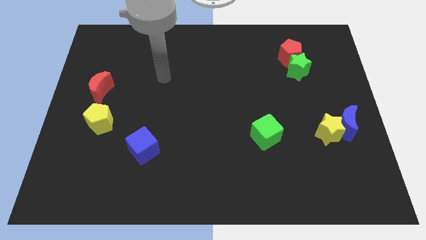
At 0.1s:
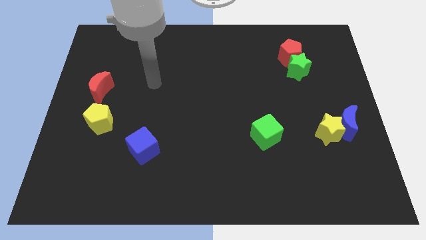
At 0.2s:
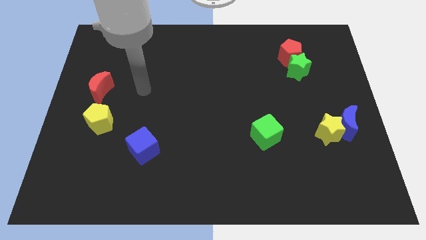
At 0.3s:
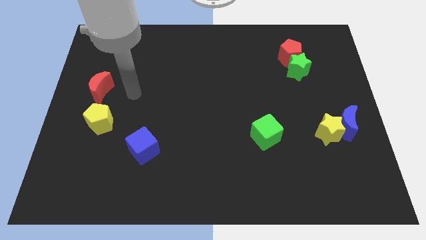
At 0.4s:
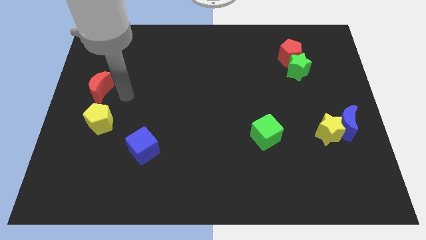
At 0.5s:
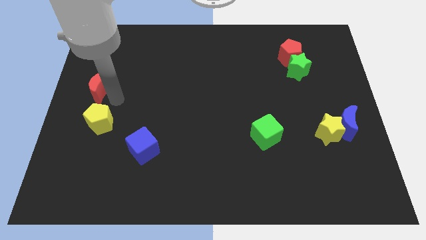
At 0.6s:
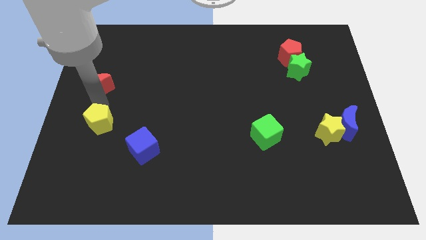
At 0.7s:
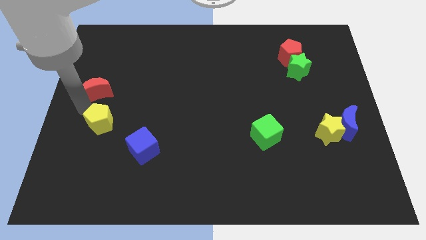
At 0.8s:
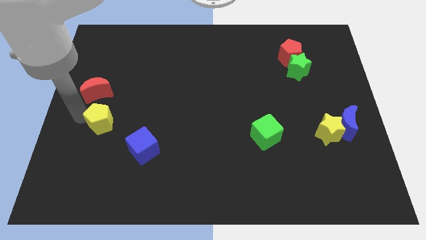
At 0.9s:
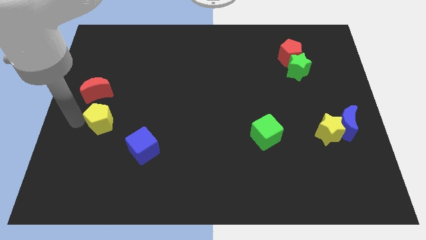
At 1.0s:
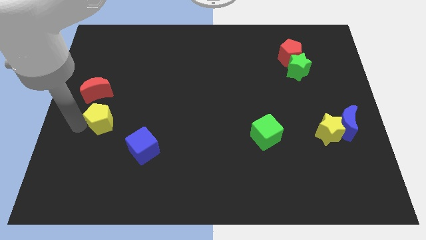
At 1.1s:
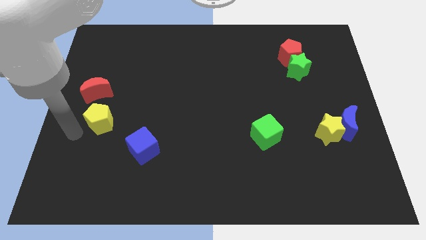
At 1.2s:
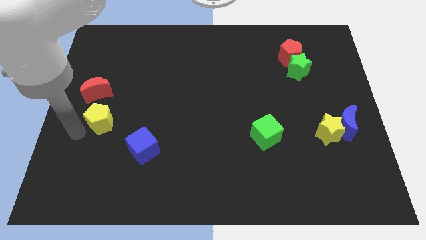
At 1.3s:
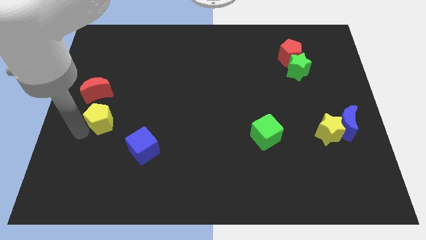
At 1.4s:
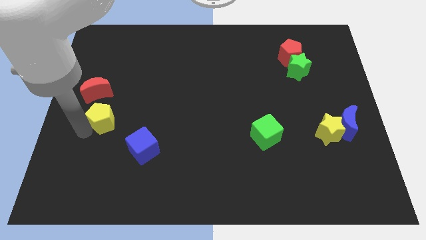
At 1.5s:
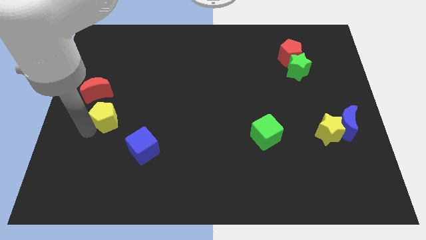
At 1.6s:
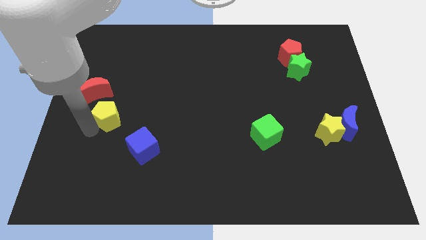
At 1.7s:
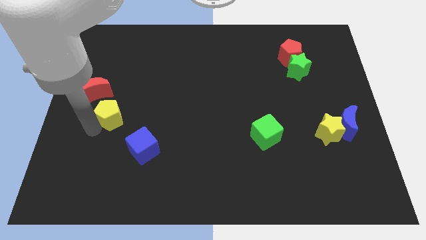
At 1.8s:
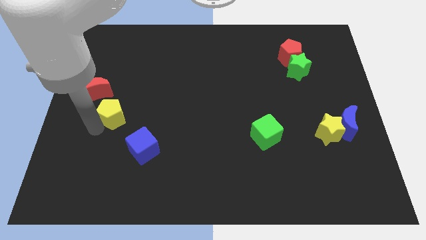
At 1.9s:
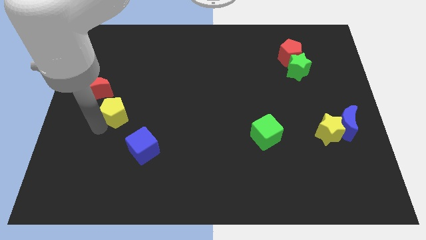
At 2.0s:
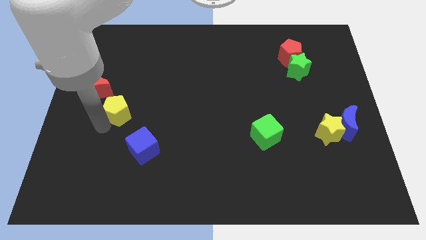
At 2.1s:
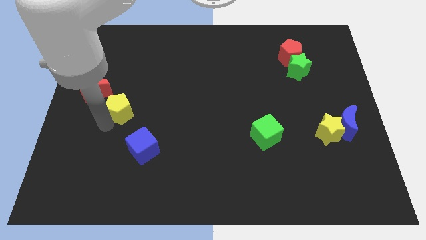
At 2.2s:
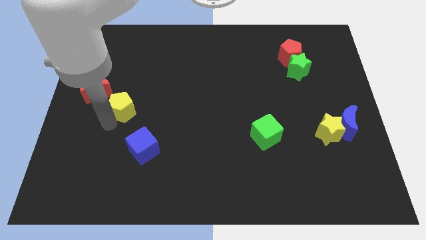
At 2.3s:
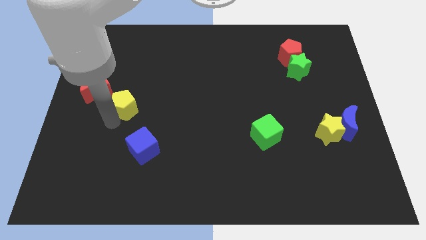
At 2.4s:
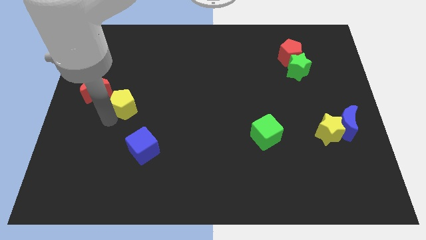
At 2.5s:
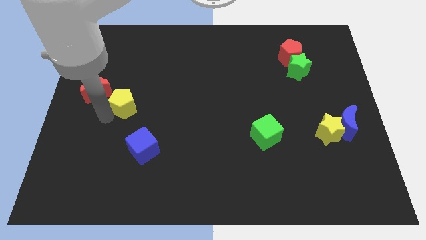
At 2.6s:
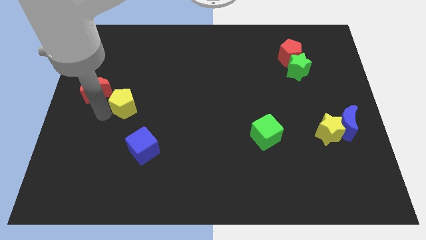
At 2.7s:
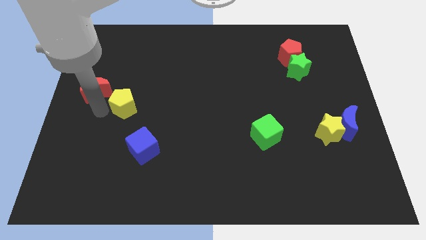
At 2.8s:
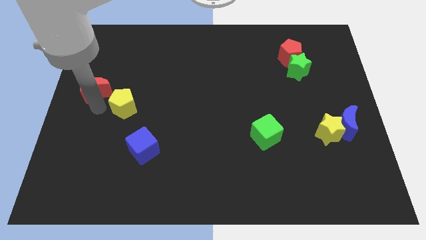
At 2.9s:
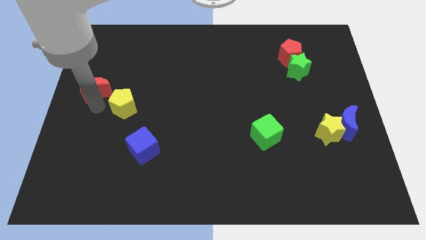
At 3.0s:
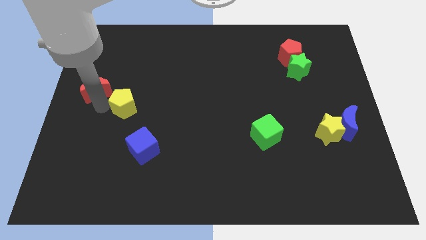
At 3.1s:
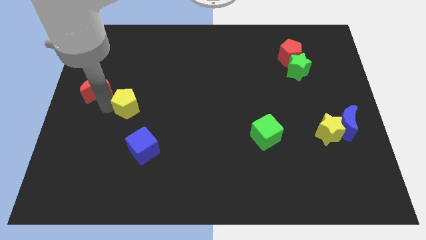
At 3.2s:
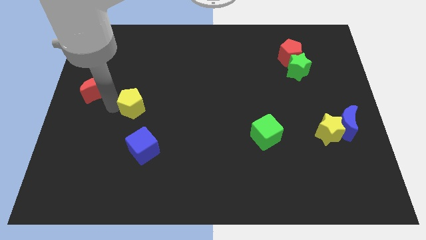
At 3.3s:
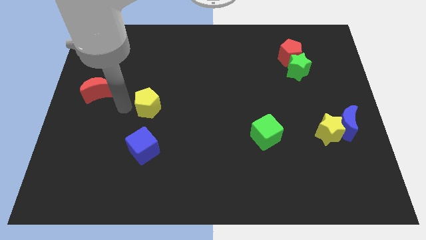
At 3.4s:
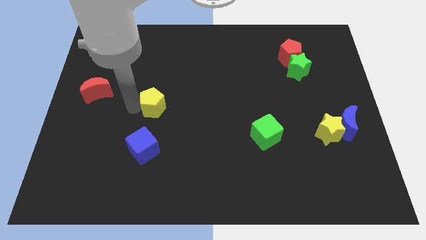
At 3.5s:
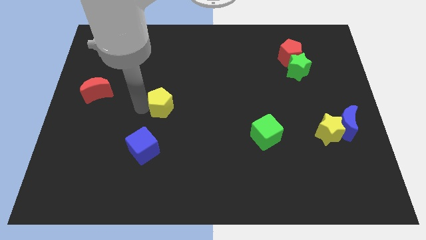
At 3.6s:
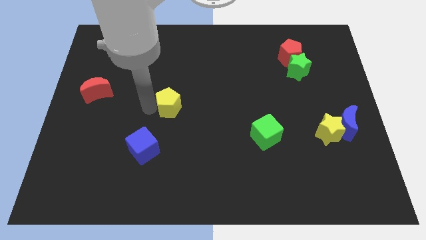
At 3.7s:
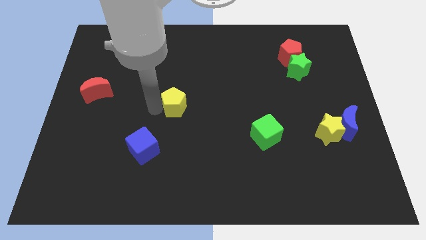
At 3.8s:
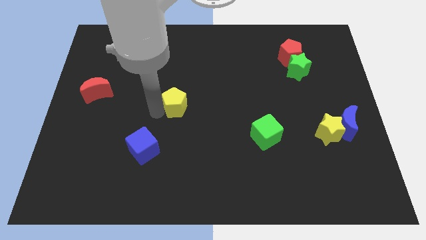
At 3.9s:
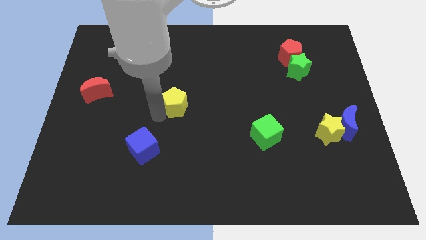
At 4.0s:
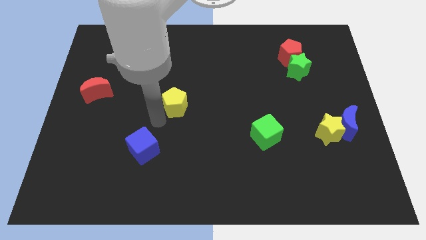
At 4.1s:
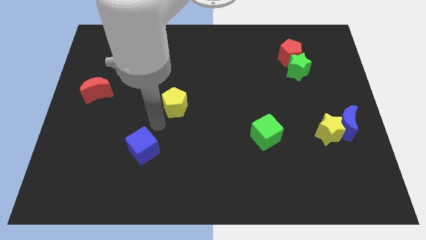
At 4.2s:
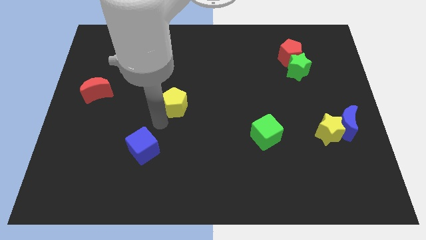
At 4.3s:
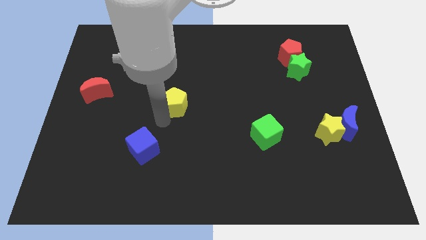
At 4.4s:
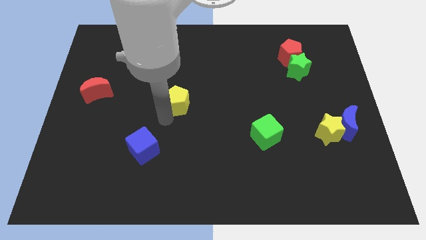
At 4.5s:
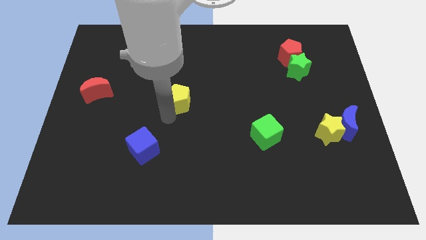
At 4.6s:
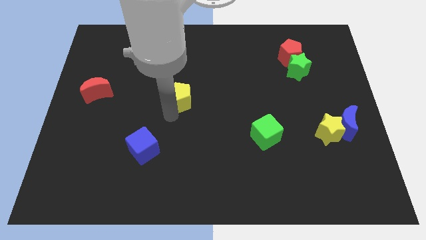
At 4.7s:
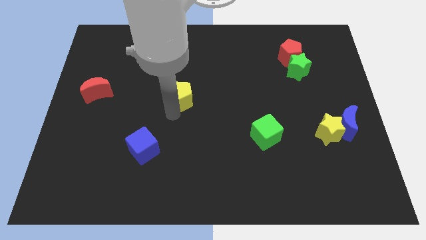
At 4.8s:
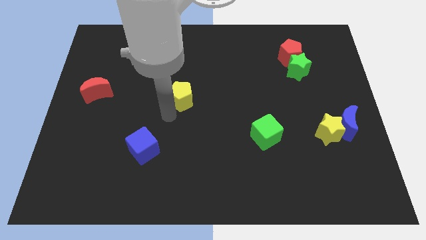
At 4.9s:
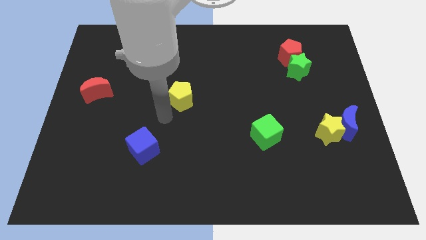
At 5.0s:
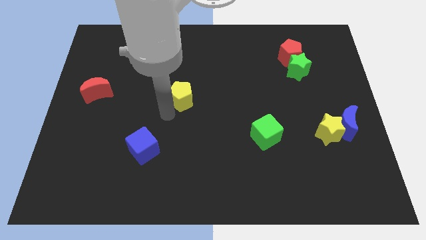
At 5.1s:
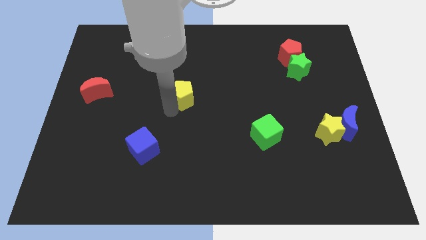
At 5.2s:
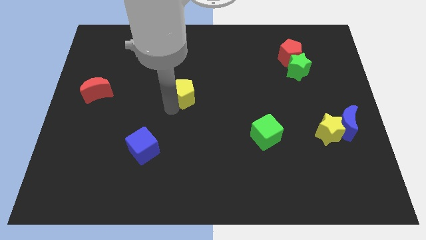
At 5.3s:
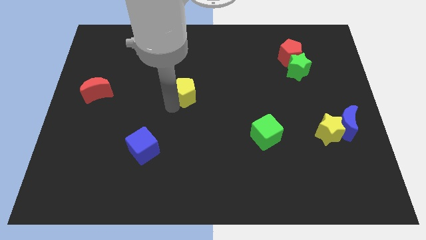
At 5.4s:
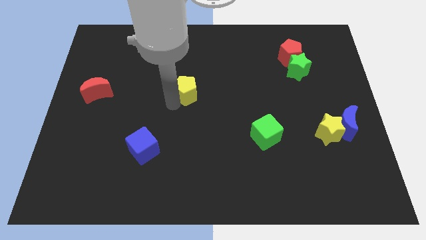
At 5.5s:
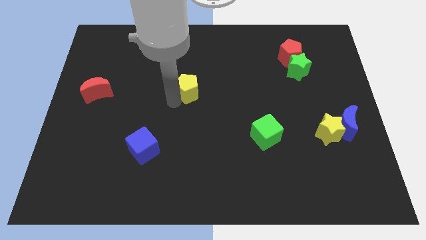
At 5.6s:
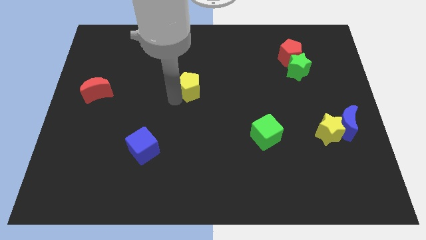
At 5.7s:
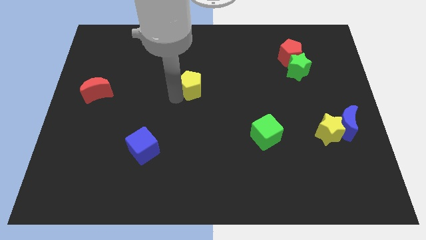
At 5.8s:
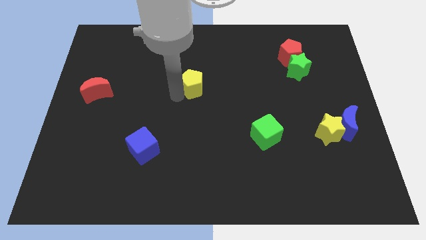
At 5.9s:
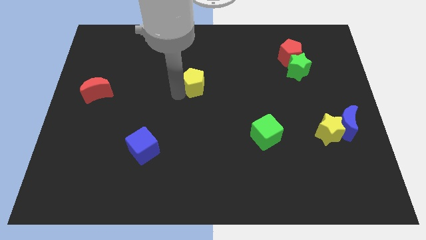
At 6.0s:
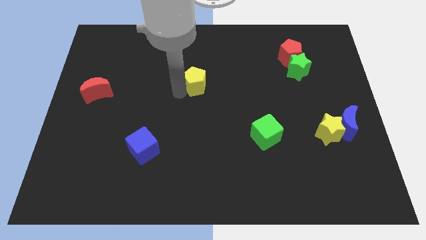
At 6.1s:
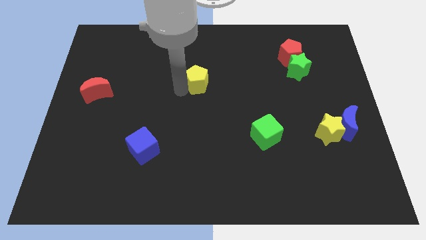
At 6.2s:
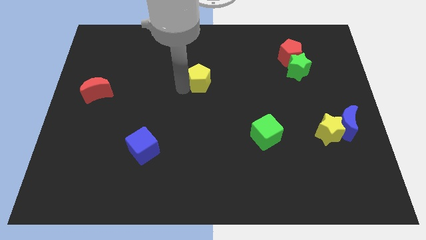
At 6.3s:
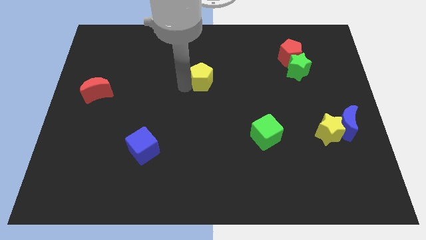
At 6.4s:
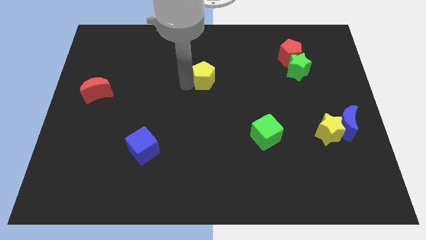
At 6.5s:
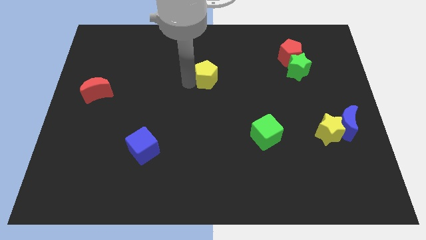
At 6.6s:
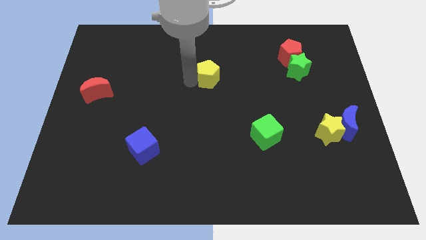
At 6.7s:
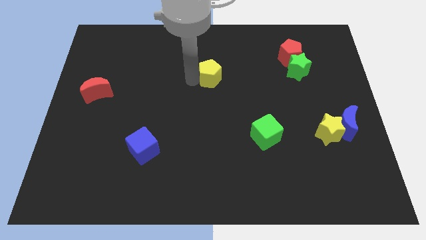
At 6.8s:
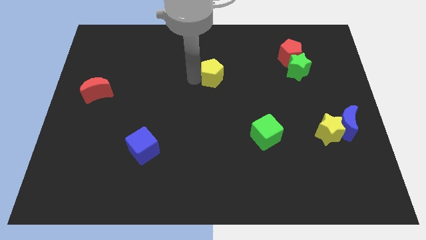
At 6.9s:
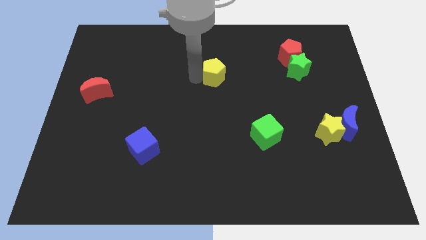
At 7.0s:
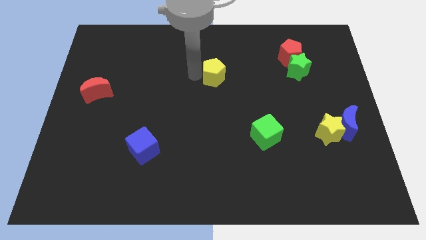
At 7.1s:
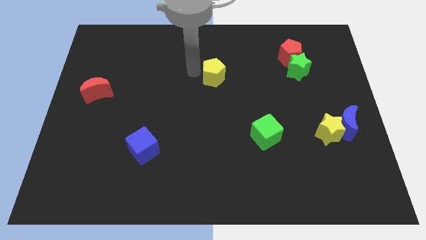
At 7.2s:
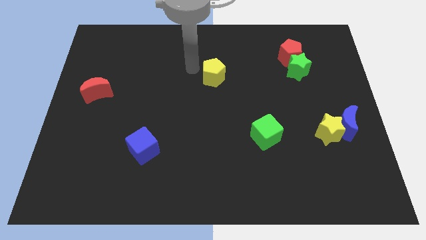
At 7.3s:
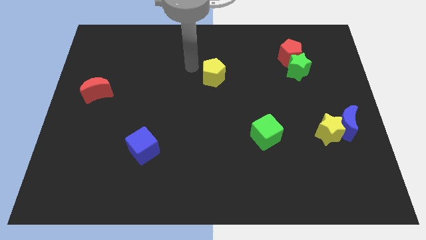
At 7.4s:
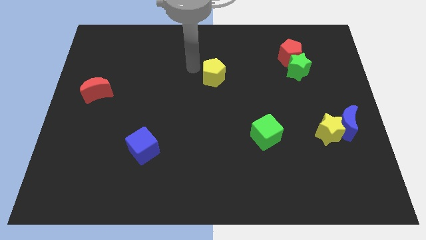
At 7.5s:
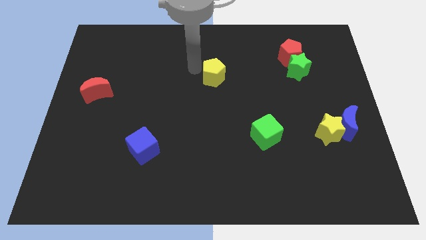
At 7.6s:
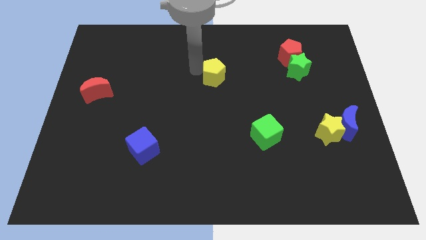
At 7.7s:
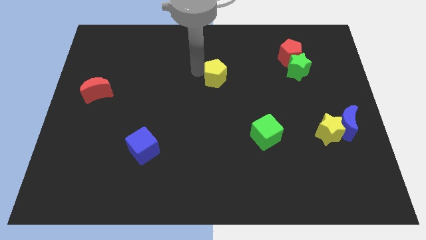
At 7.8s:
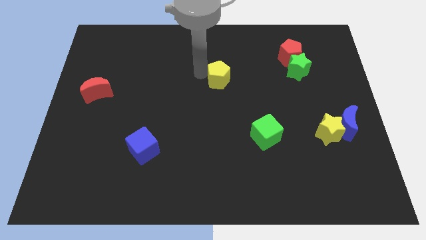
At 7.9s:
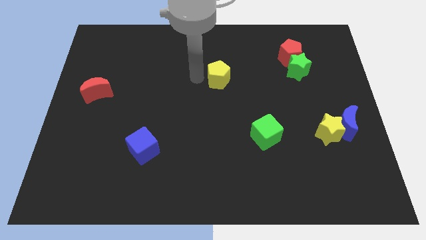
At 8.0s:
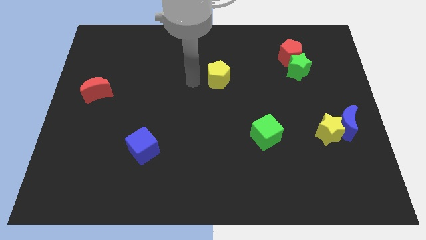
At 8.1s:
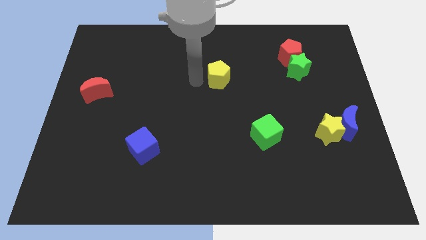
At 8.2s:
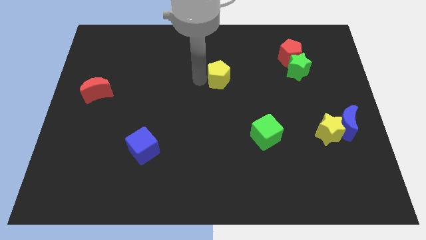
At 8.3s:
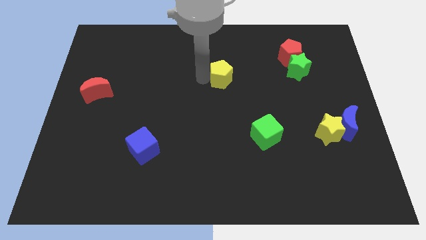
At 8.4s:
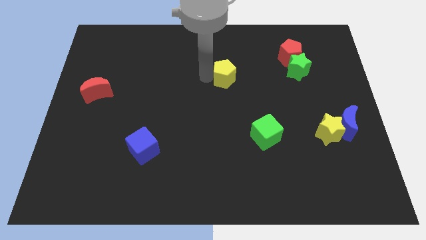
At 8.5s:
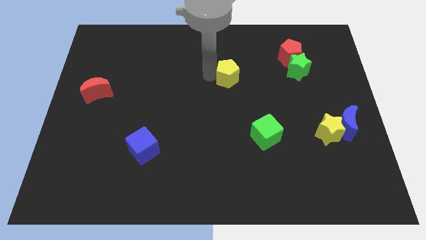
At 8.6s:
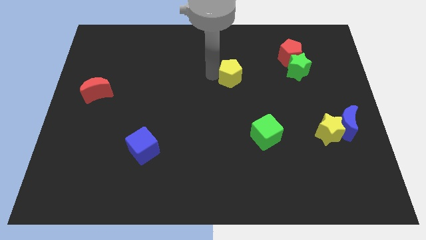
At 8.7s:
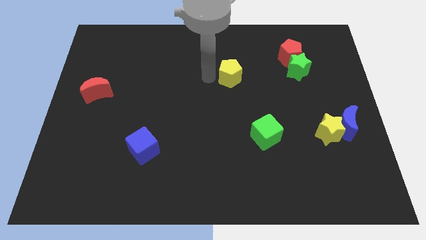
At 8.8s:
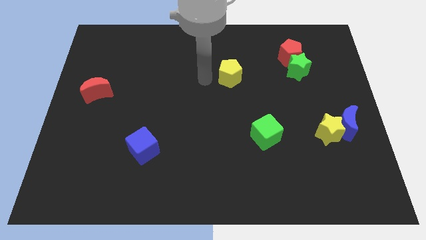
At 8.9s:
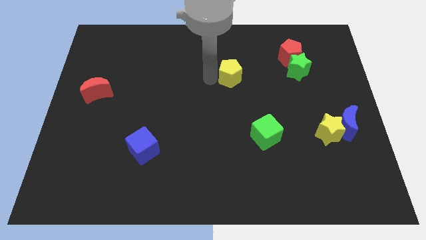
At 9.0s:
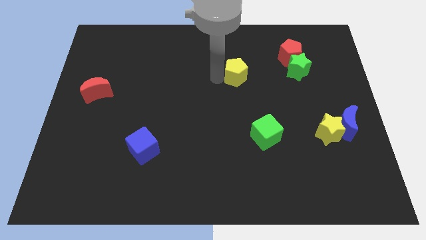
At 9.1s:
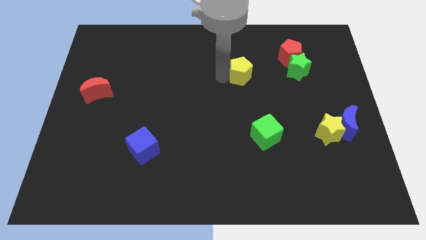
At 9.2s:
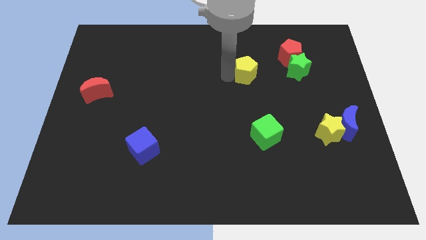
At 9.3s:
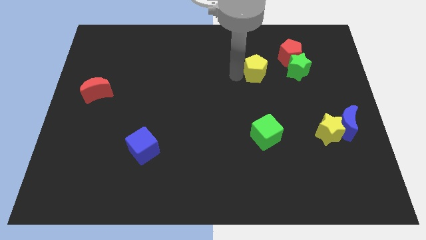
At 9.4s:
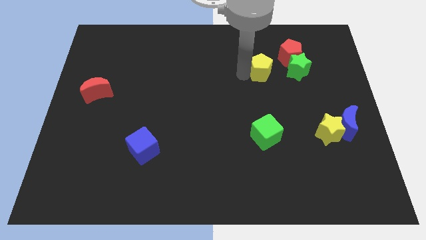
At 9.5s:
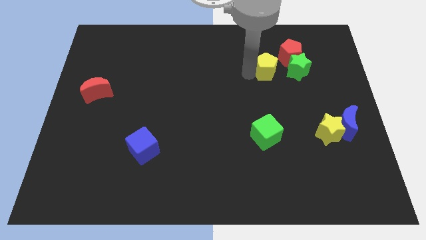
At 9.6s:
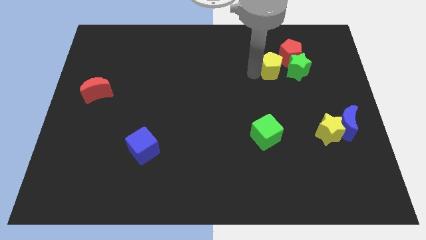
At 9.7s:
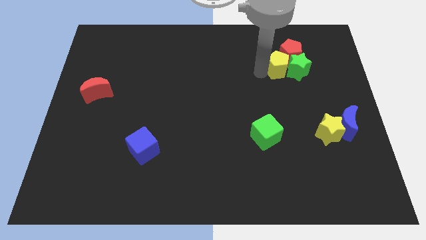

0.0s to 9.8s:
slide the yellow pentagon next to the red pentagon
